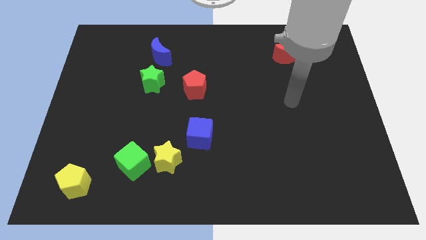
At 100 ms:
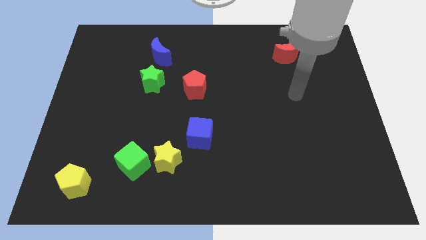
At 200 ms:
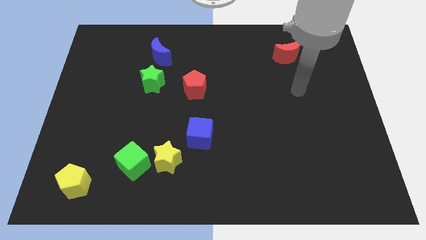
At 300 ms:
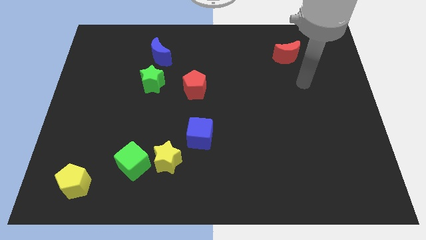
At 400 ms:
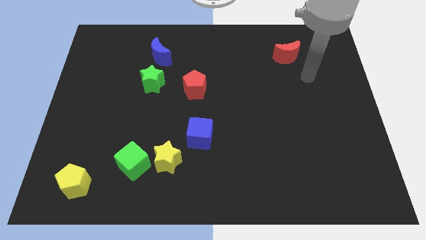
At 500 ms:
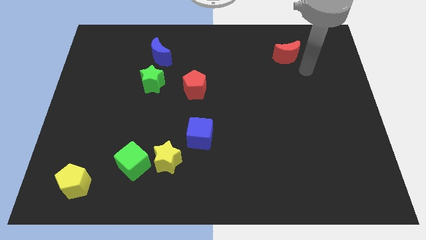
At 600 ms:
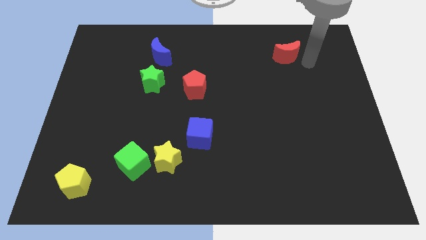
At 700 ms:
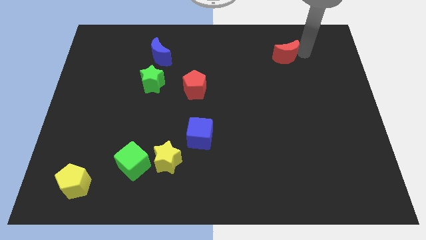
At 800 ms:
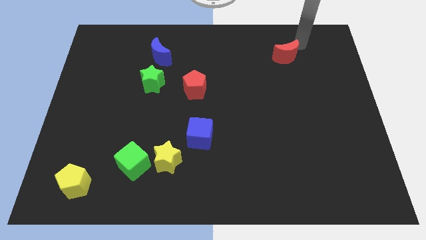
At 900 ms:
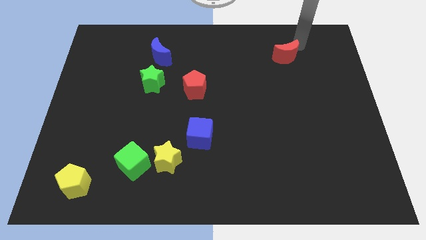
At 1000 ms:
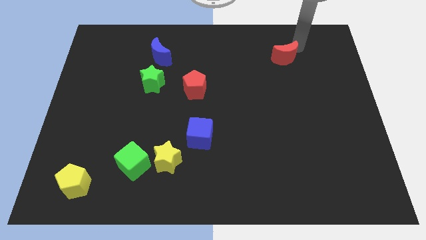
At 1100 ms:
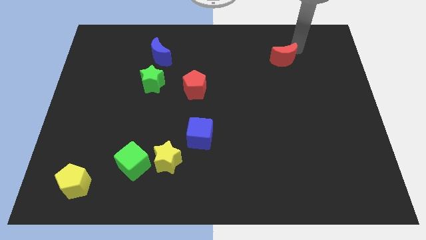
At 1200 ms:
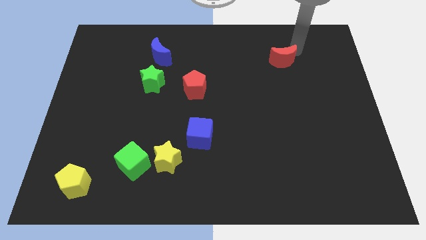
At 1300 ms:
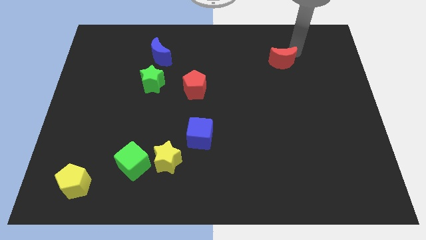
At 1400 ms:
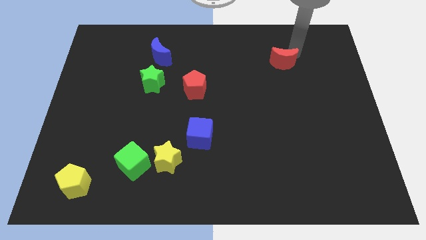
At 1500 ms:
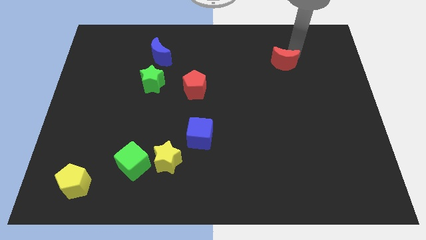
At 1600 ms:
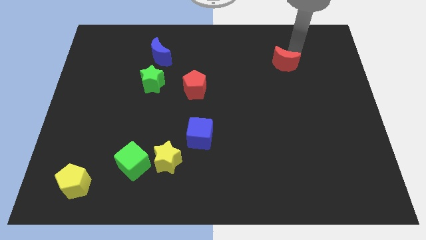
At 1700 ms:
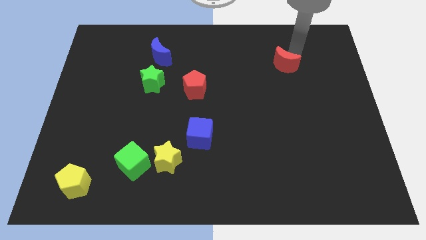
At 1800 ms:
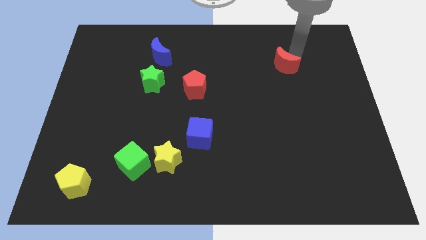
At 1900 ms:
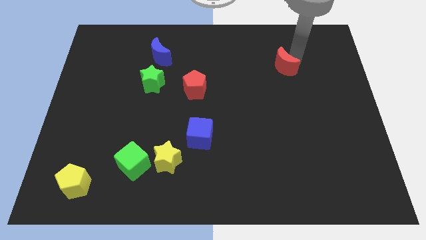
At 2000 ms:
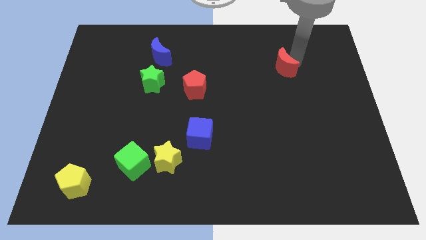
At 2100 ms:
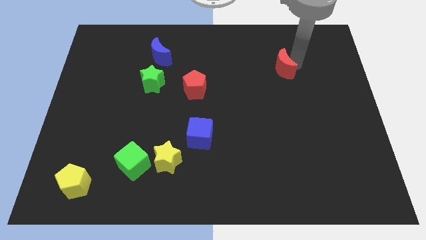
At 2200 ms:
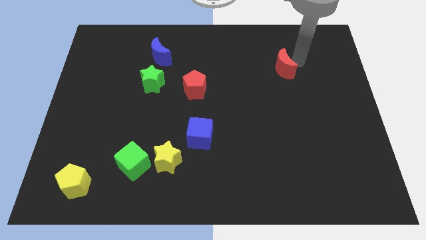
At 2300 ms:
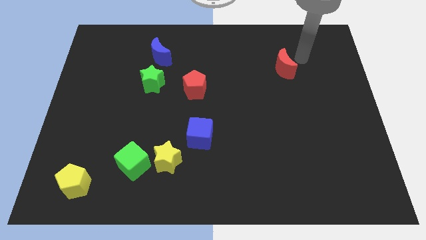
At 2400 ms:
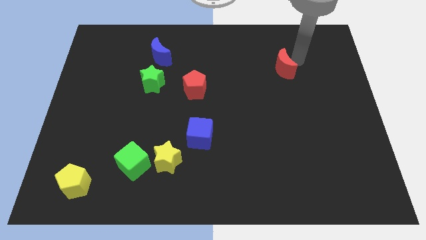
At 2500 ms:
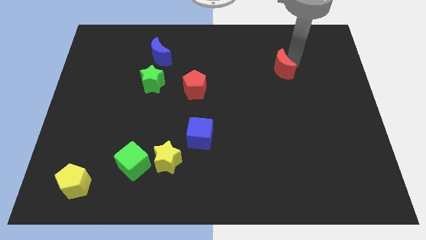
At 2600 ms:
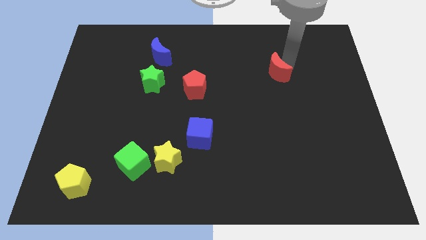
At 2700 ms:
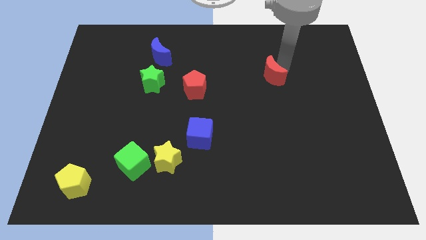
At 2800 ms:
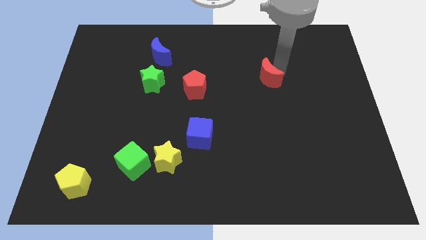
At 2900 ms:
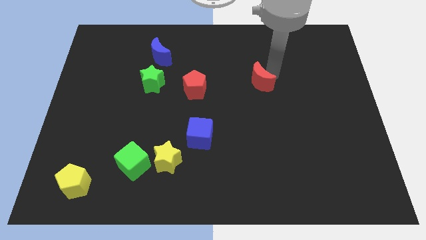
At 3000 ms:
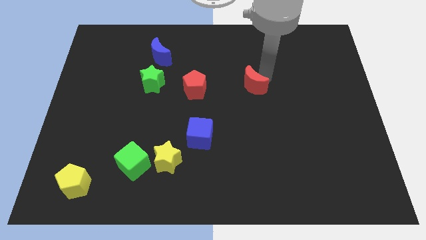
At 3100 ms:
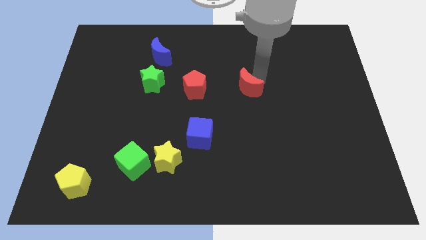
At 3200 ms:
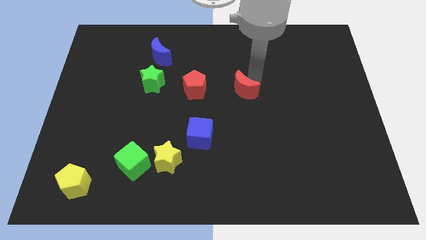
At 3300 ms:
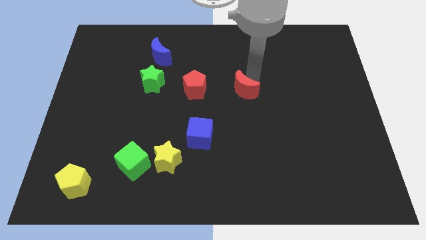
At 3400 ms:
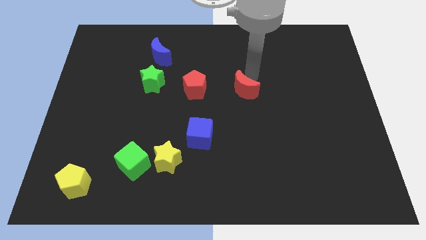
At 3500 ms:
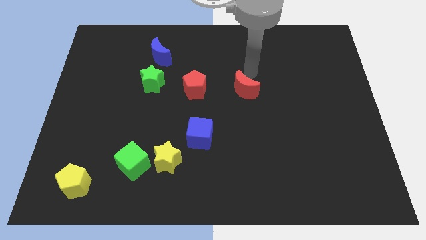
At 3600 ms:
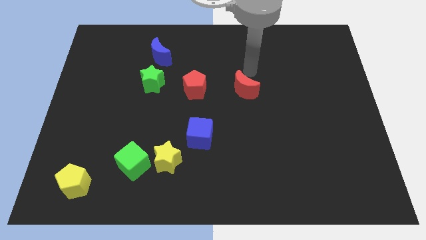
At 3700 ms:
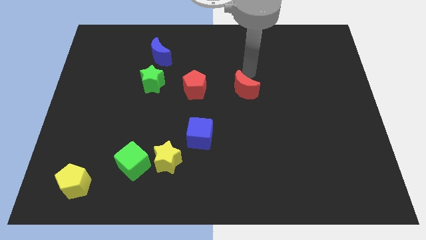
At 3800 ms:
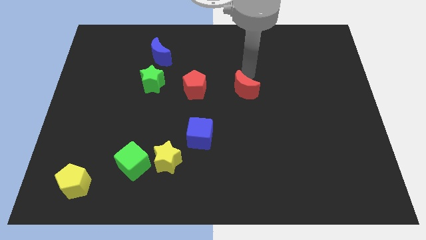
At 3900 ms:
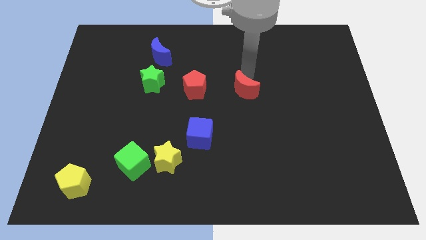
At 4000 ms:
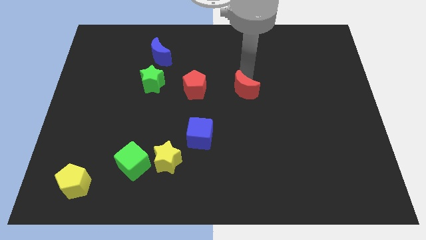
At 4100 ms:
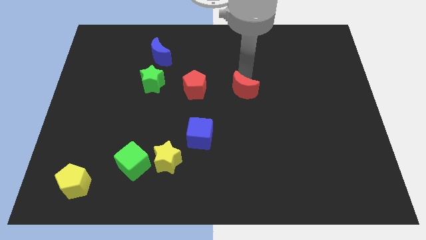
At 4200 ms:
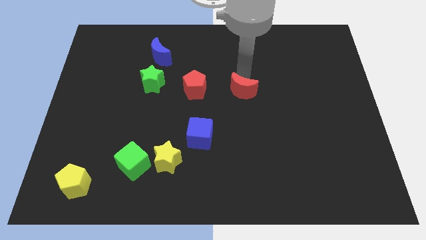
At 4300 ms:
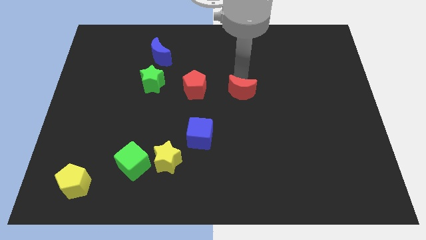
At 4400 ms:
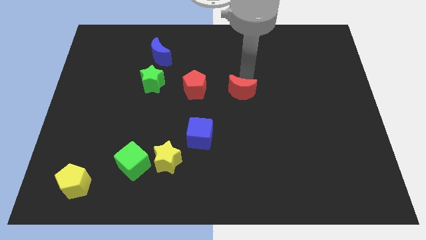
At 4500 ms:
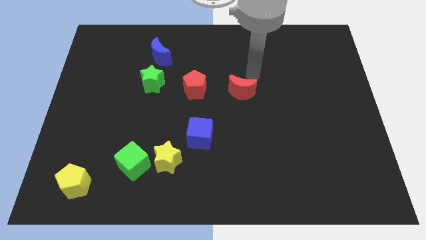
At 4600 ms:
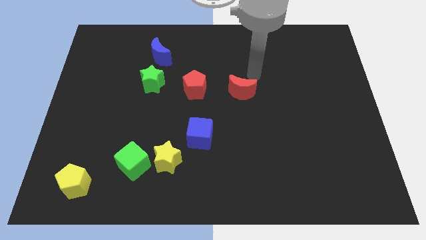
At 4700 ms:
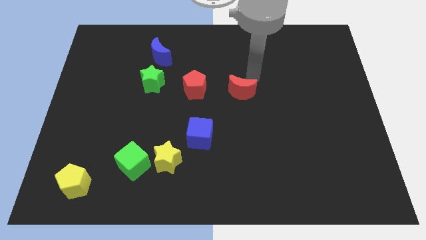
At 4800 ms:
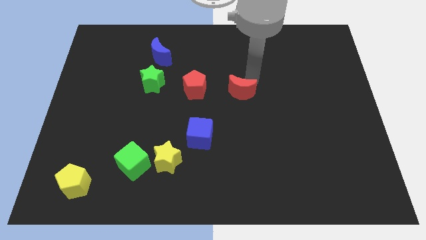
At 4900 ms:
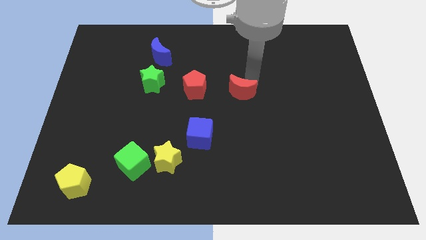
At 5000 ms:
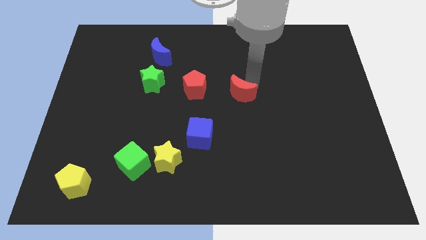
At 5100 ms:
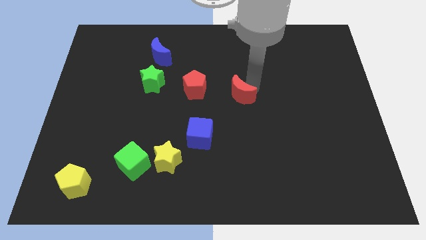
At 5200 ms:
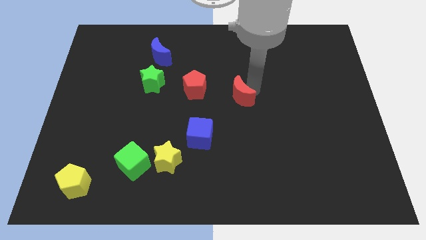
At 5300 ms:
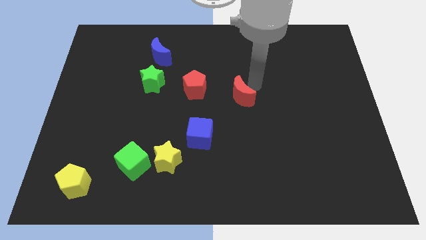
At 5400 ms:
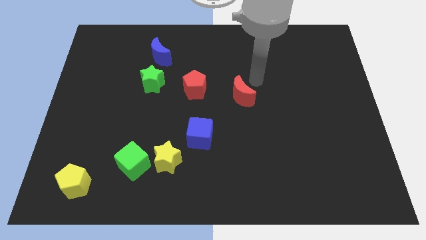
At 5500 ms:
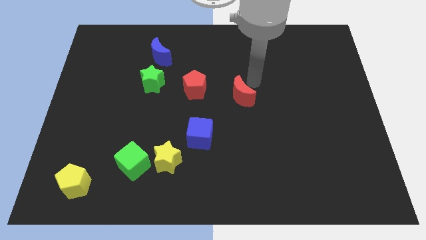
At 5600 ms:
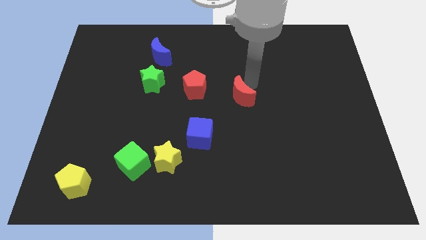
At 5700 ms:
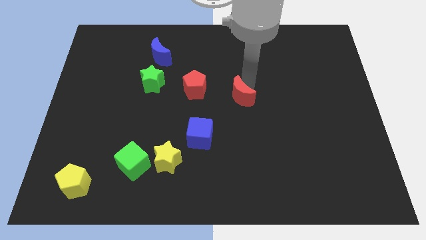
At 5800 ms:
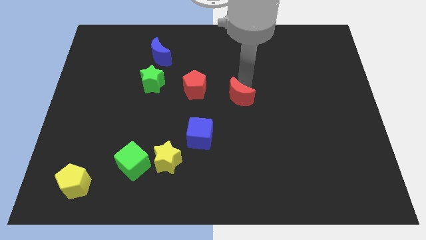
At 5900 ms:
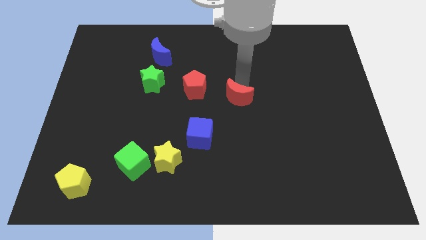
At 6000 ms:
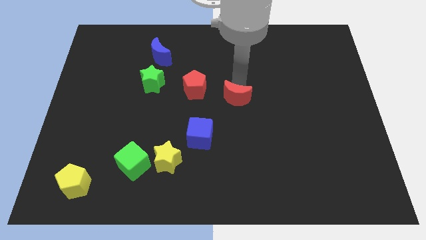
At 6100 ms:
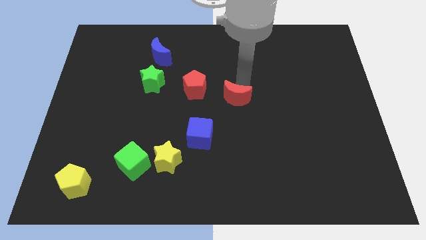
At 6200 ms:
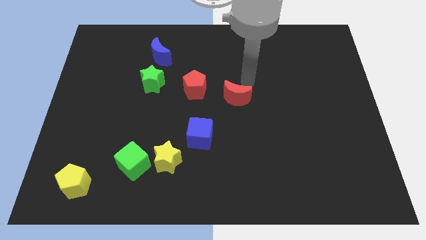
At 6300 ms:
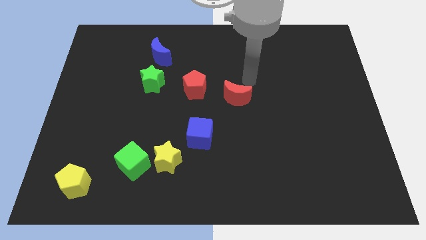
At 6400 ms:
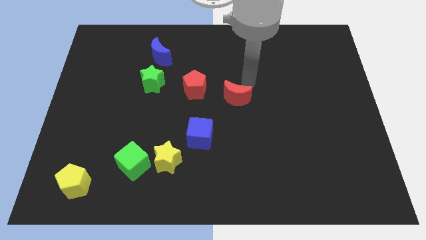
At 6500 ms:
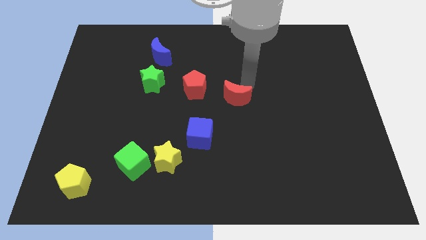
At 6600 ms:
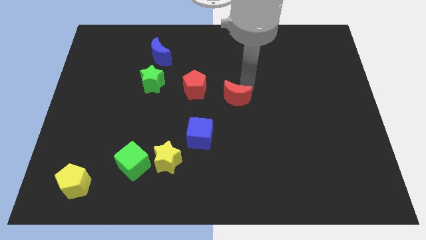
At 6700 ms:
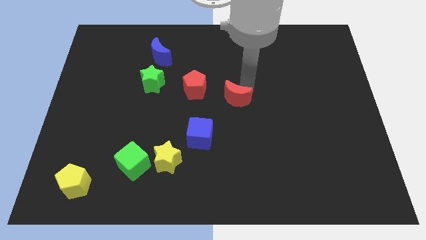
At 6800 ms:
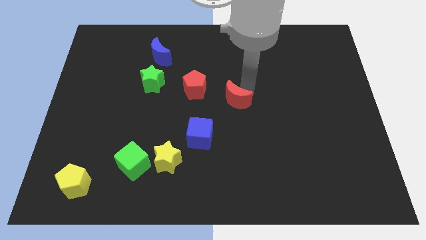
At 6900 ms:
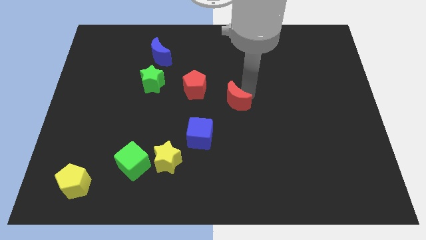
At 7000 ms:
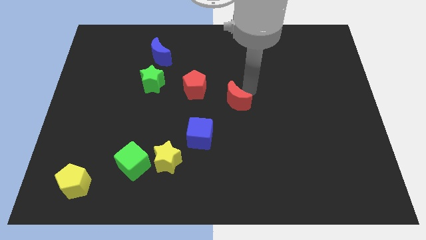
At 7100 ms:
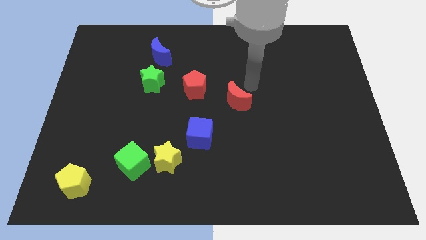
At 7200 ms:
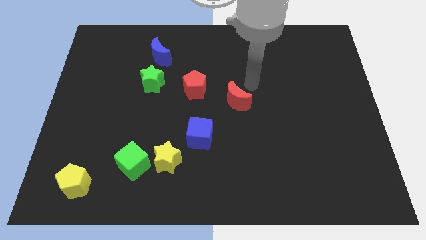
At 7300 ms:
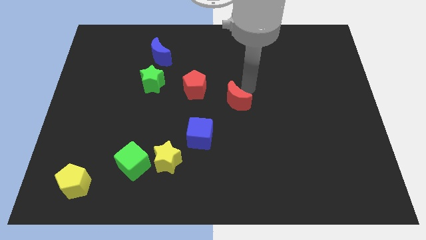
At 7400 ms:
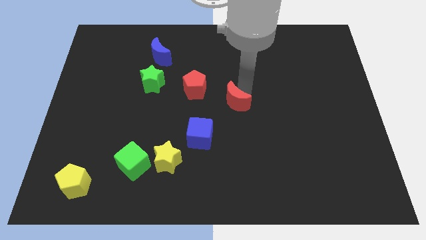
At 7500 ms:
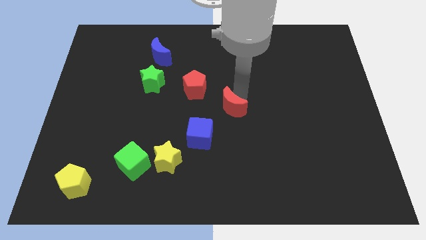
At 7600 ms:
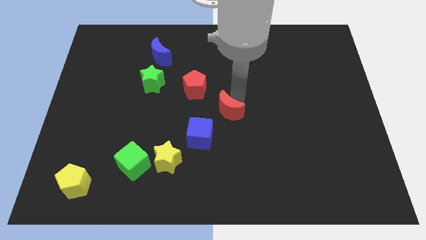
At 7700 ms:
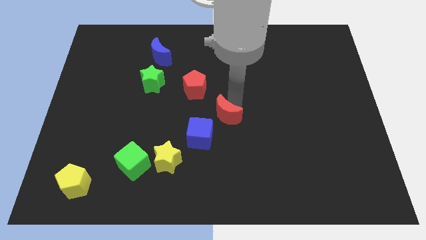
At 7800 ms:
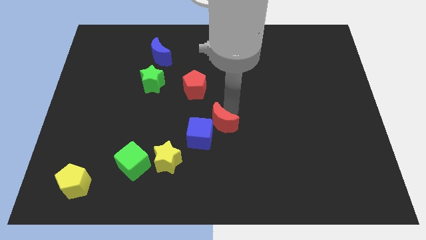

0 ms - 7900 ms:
slide the red moon towards the blue cube
